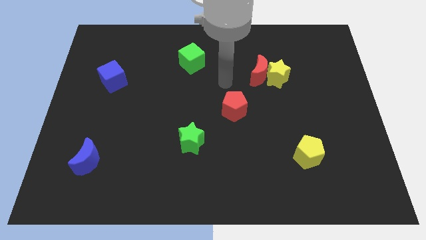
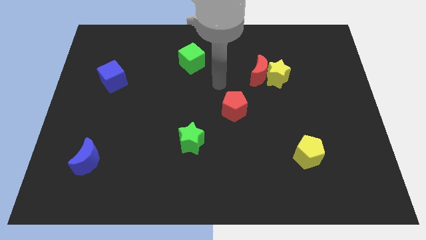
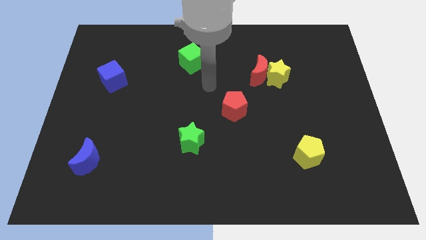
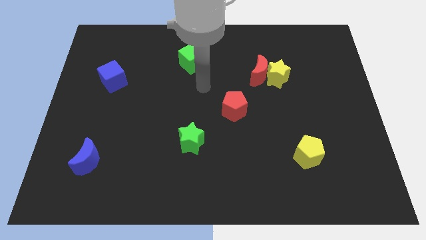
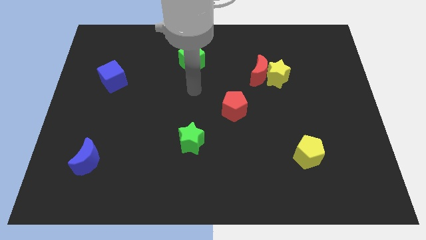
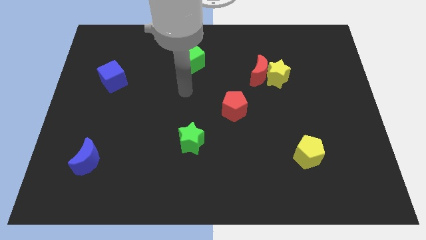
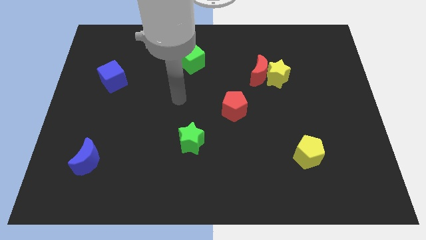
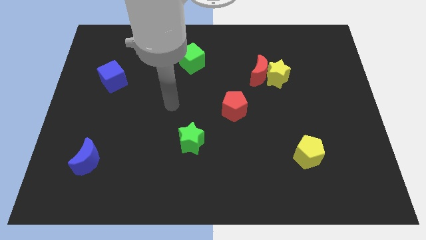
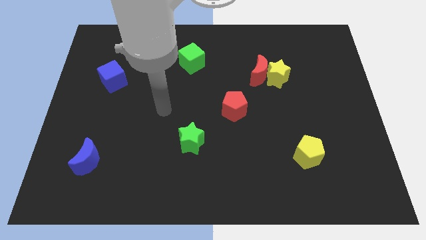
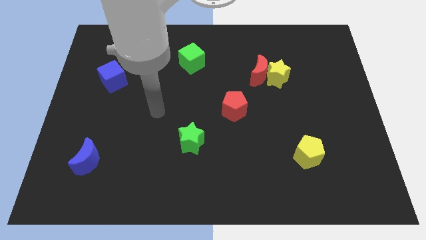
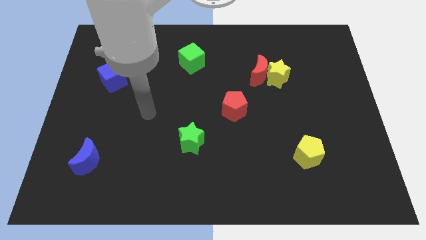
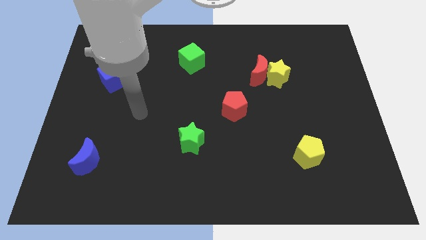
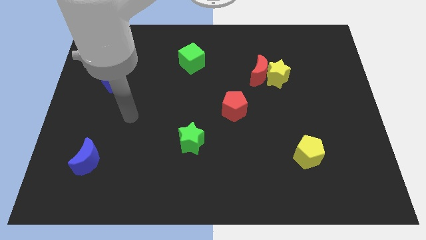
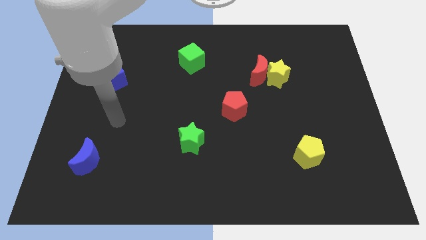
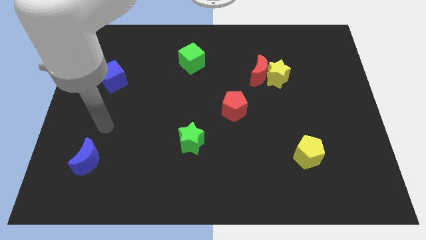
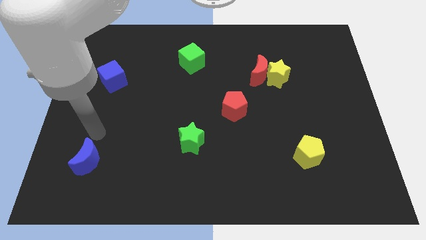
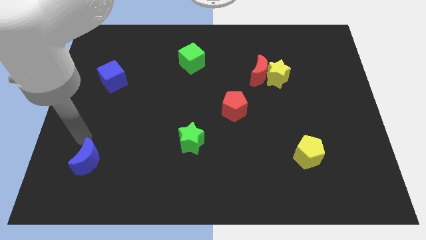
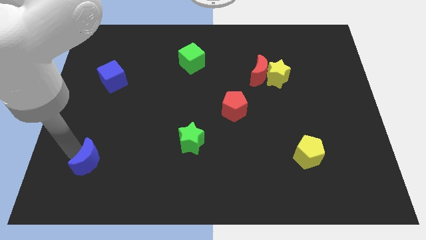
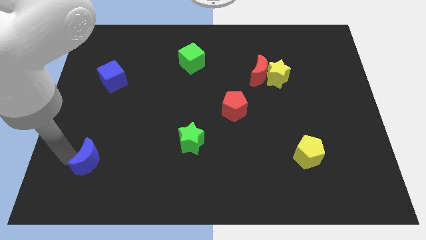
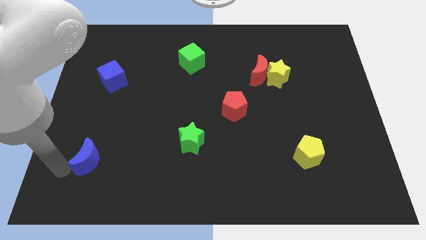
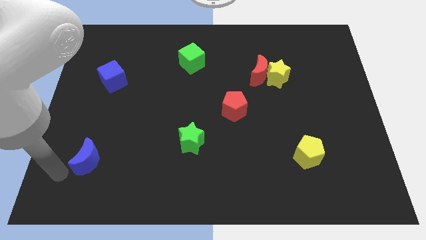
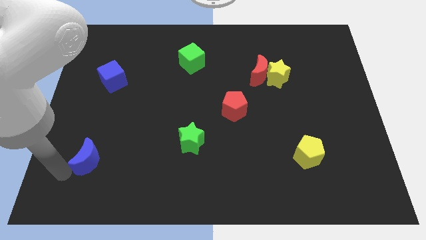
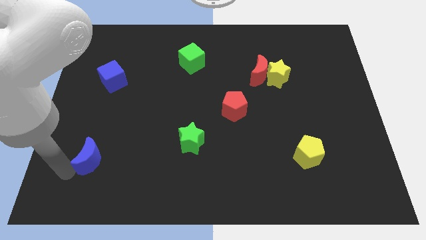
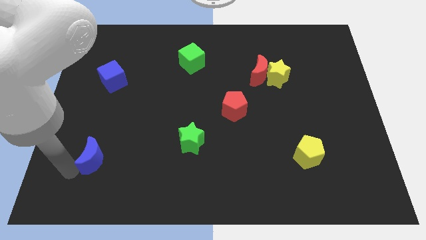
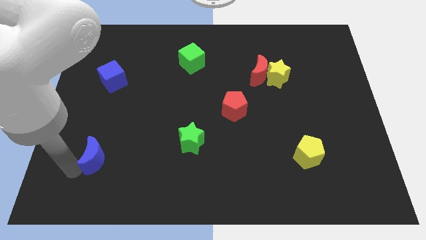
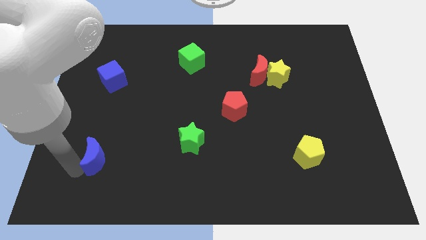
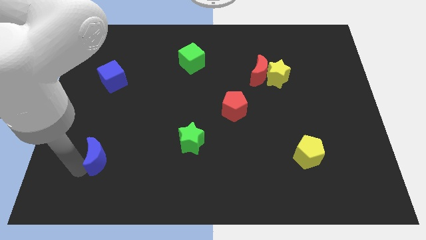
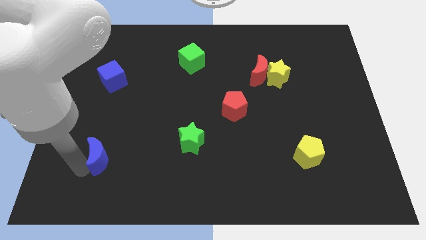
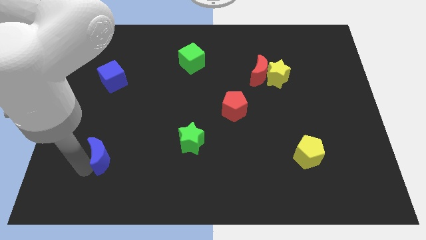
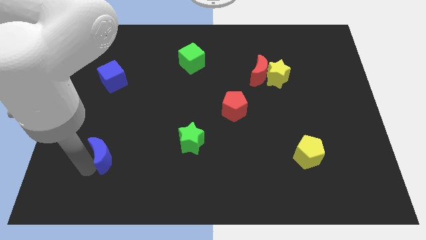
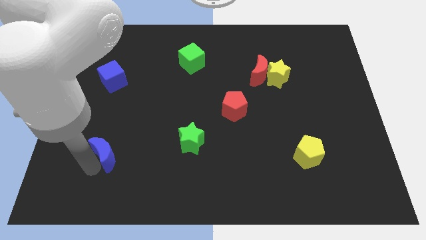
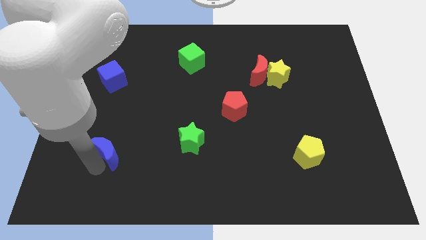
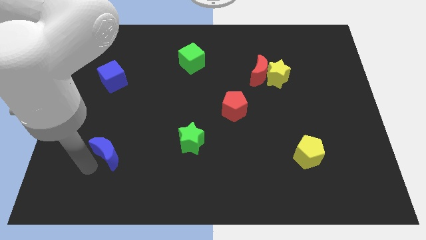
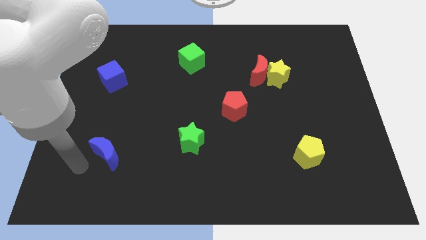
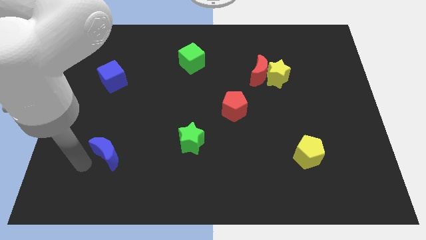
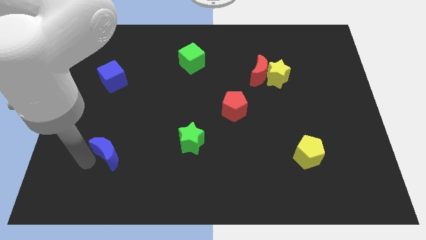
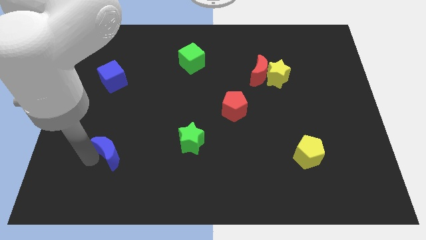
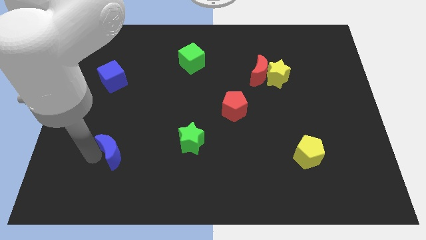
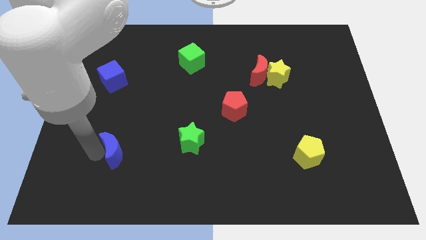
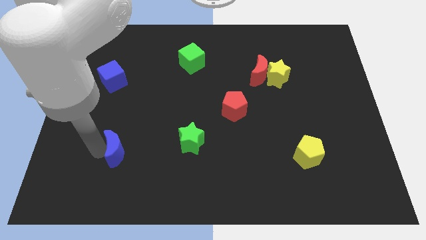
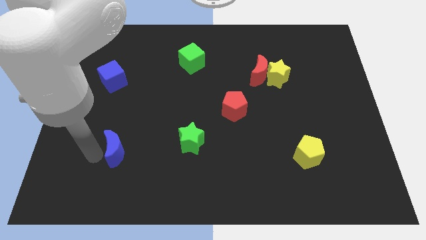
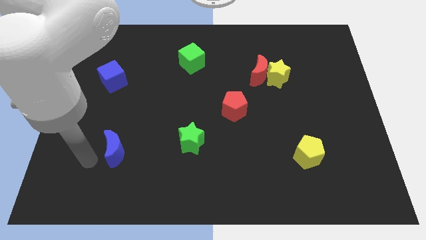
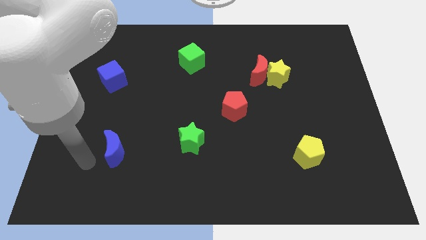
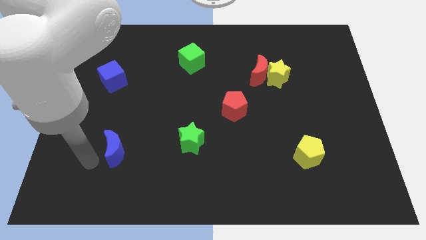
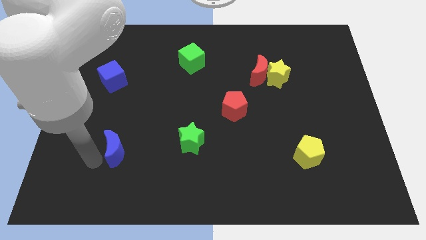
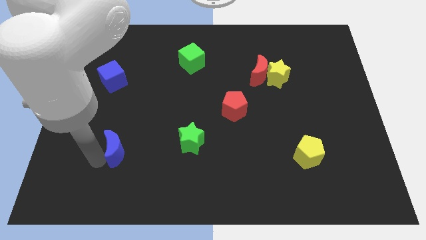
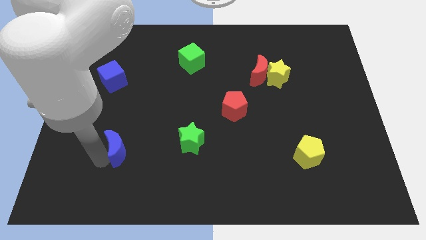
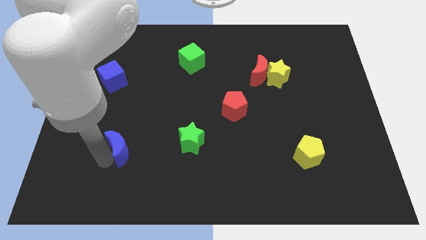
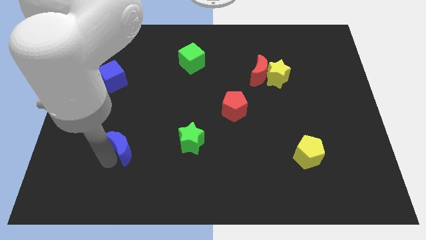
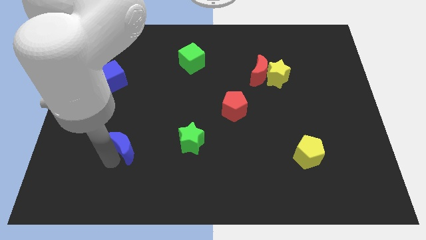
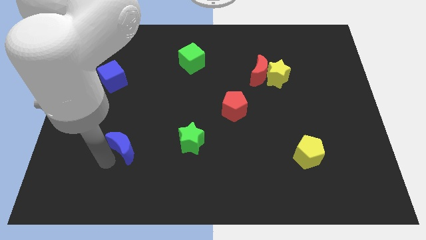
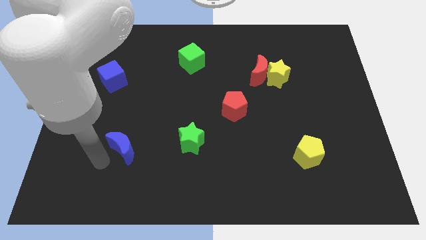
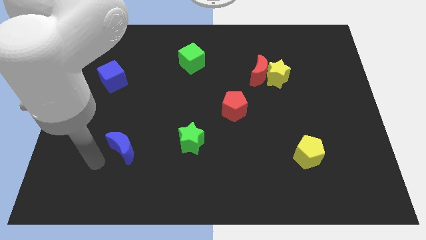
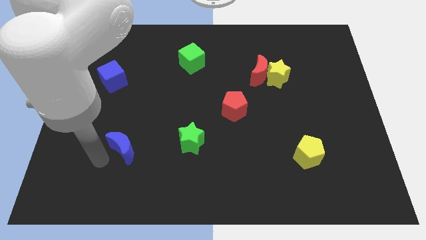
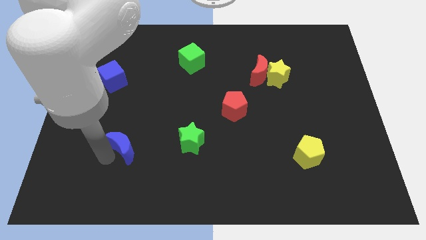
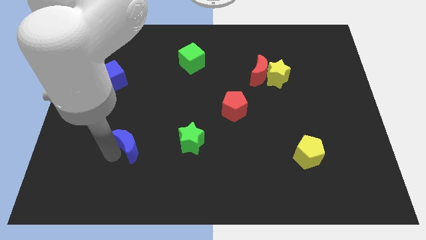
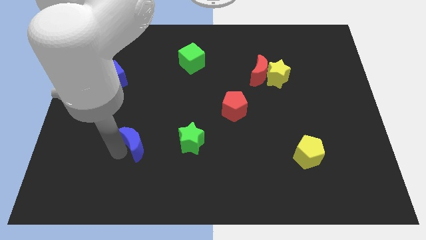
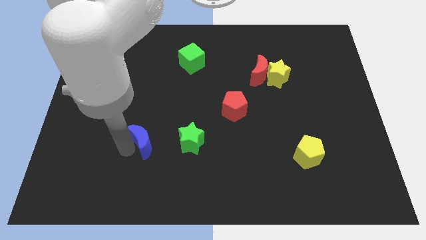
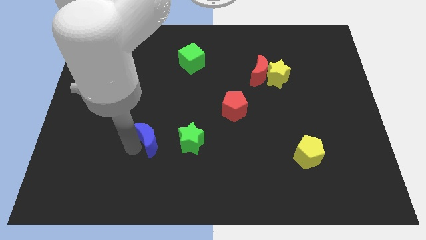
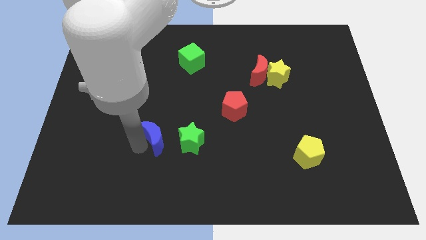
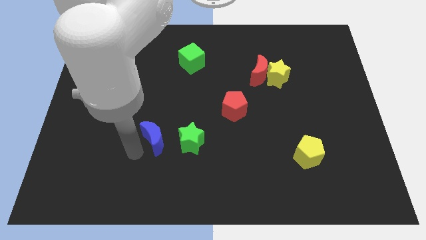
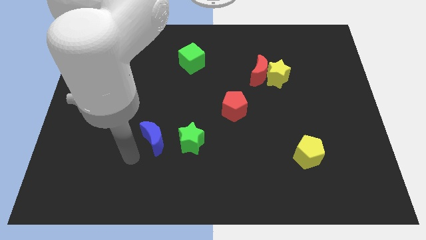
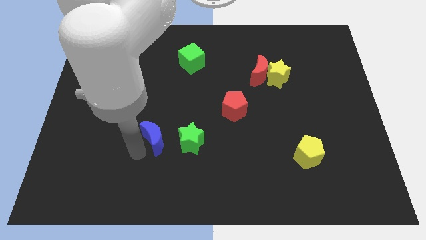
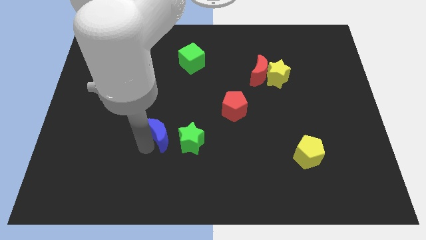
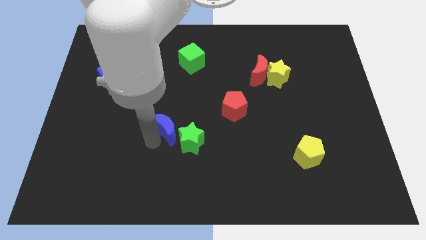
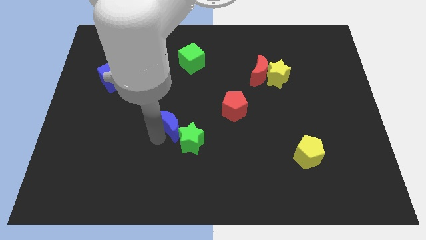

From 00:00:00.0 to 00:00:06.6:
move the blue moon to the center
